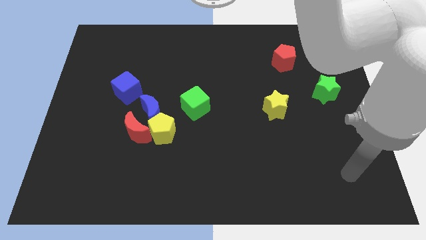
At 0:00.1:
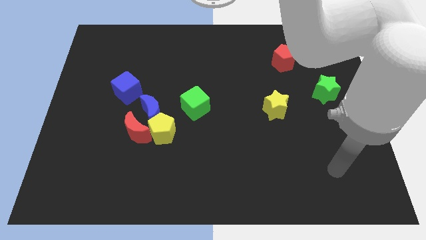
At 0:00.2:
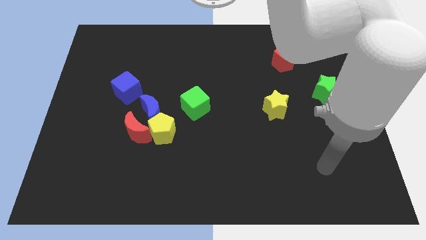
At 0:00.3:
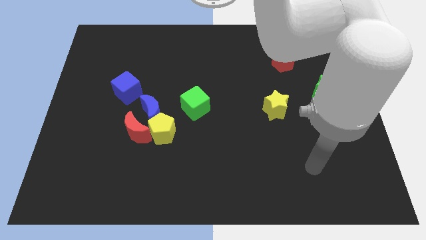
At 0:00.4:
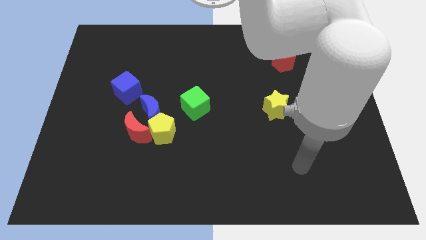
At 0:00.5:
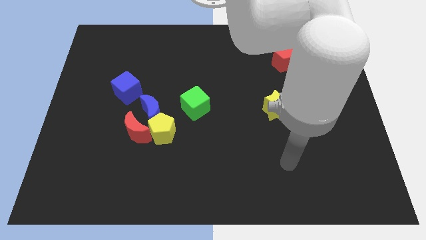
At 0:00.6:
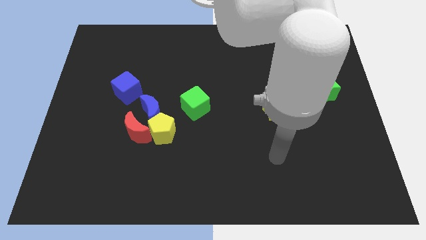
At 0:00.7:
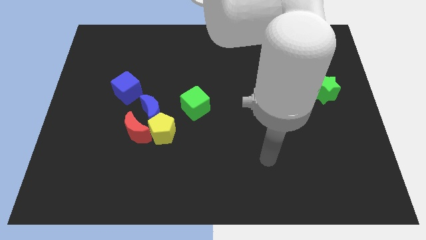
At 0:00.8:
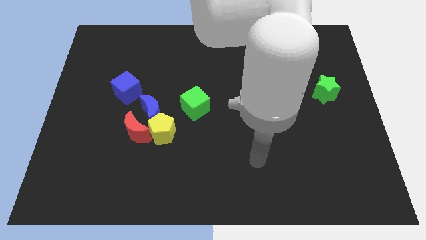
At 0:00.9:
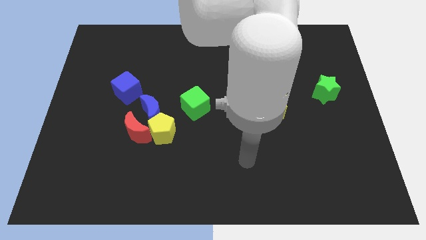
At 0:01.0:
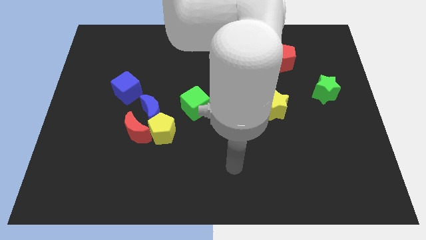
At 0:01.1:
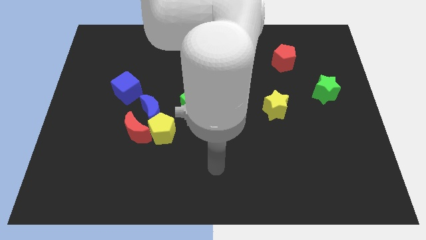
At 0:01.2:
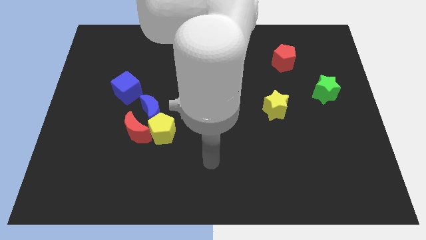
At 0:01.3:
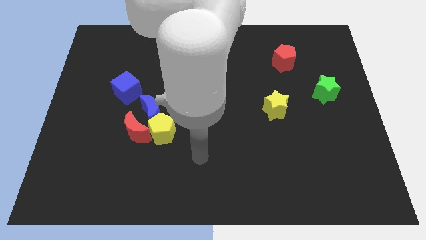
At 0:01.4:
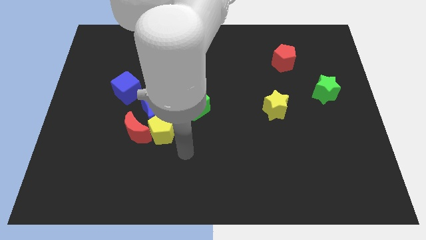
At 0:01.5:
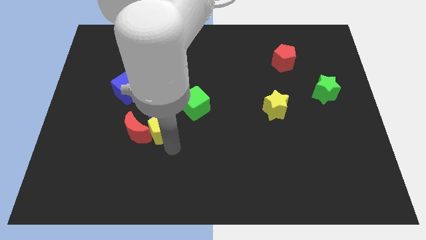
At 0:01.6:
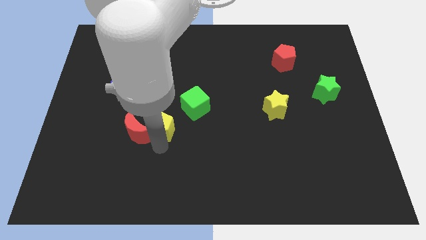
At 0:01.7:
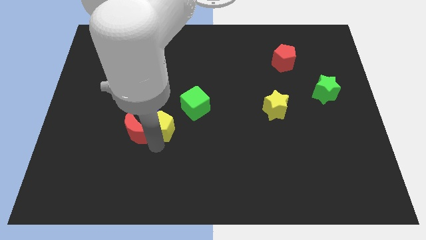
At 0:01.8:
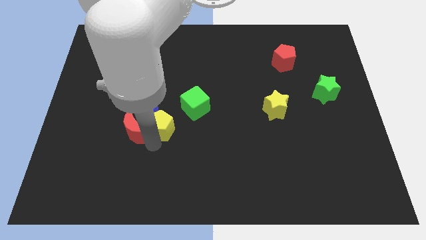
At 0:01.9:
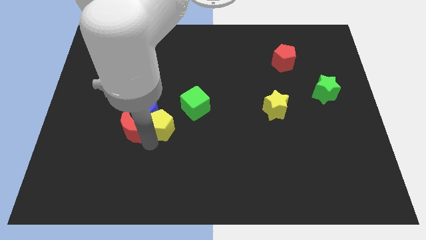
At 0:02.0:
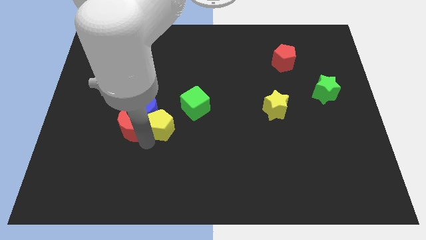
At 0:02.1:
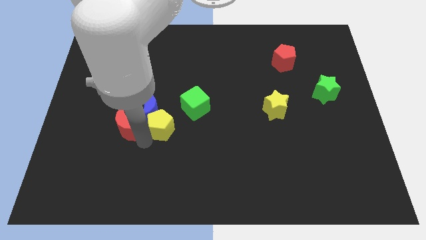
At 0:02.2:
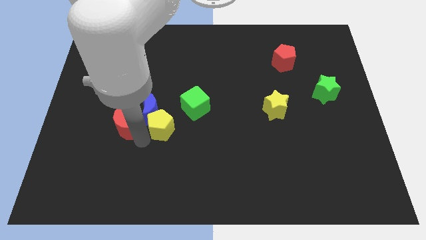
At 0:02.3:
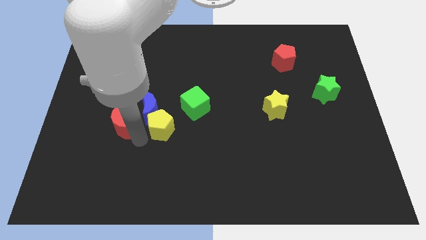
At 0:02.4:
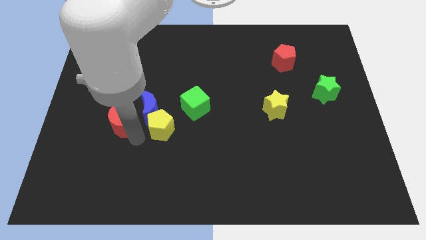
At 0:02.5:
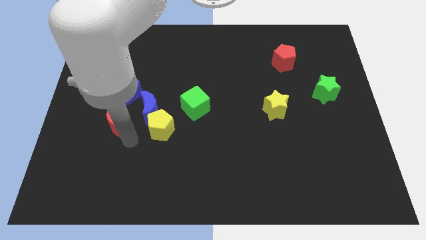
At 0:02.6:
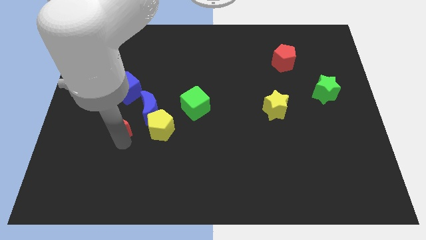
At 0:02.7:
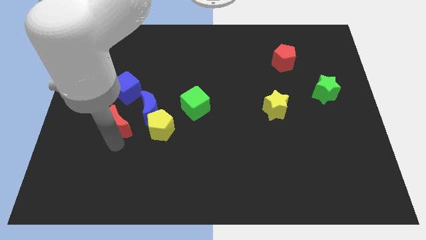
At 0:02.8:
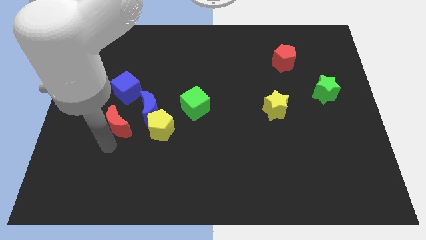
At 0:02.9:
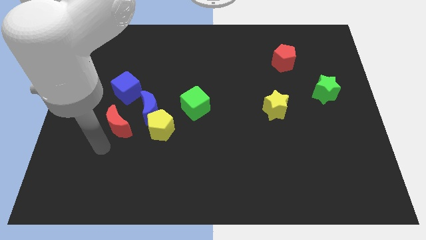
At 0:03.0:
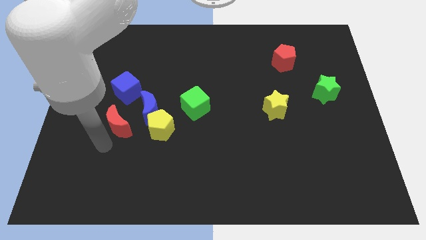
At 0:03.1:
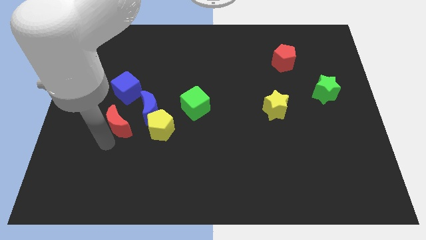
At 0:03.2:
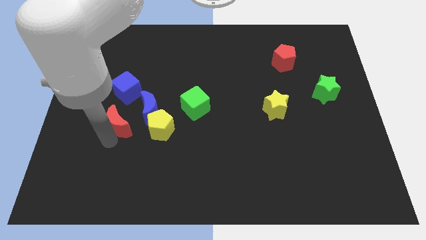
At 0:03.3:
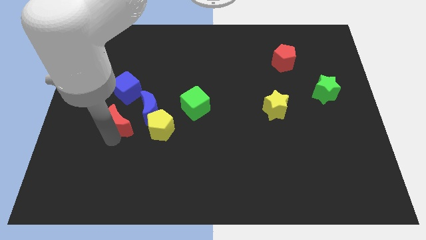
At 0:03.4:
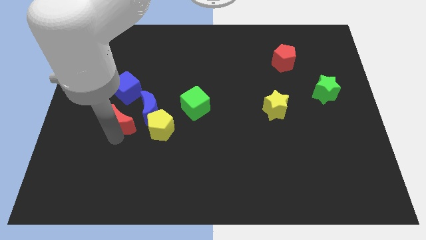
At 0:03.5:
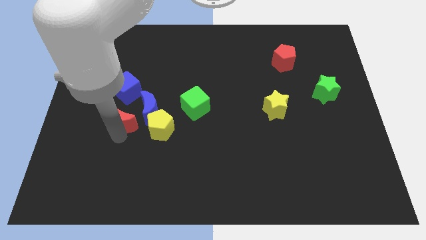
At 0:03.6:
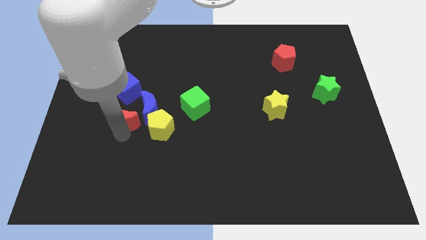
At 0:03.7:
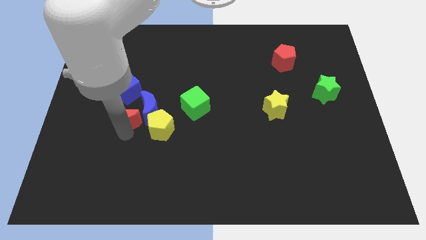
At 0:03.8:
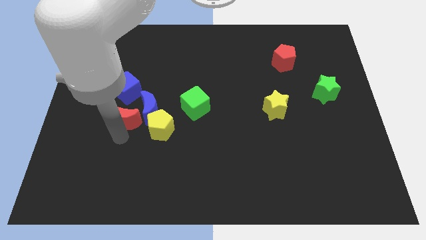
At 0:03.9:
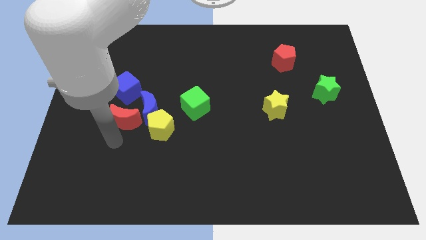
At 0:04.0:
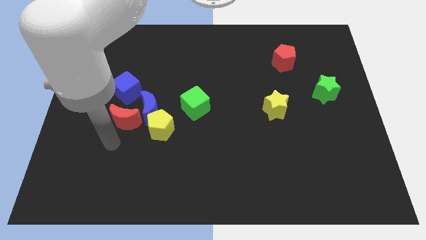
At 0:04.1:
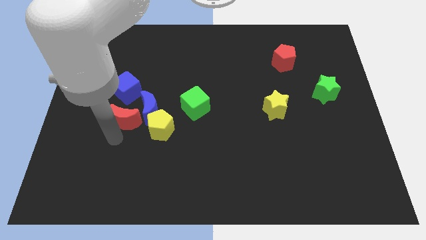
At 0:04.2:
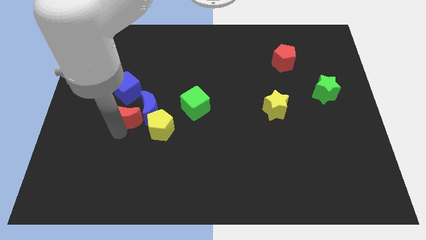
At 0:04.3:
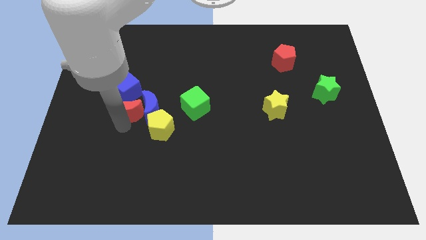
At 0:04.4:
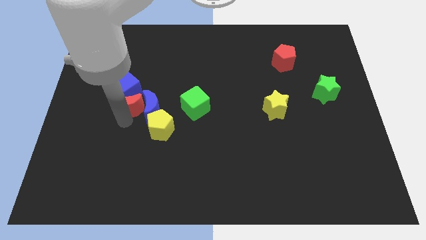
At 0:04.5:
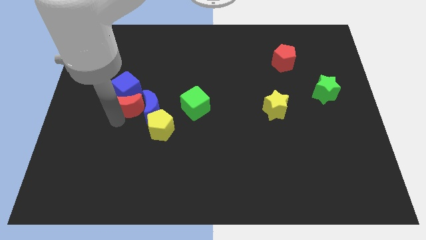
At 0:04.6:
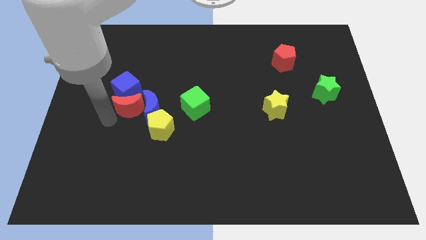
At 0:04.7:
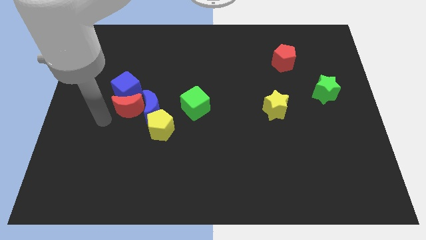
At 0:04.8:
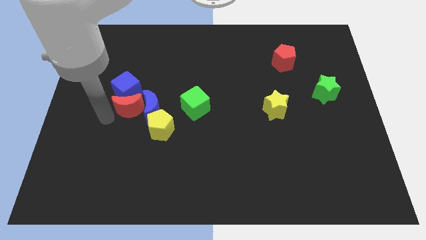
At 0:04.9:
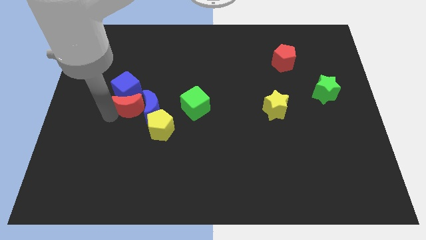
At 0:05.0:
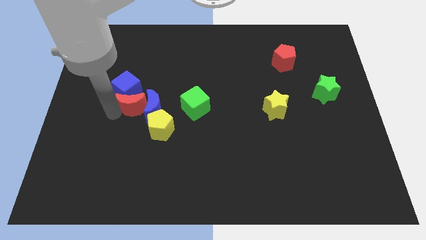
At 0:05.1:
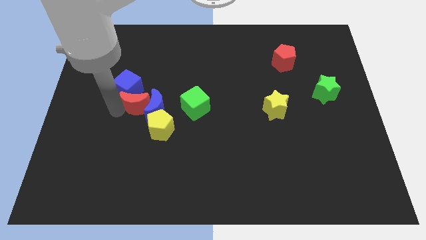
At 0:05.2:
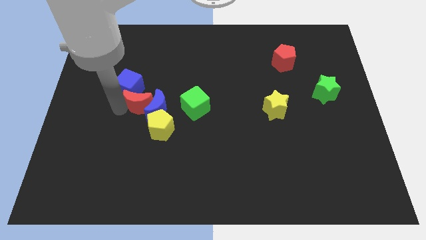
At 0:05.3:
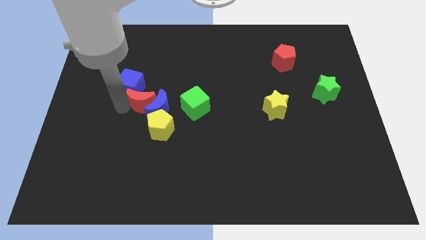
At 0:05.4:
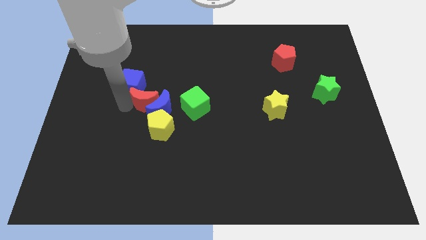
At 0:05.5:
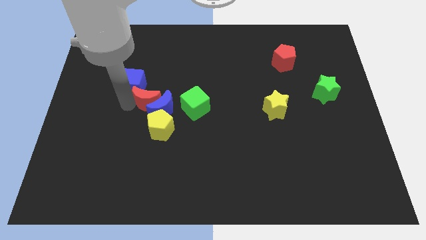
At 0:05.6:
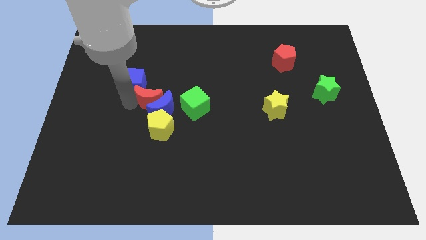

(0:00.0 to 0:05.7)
slide the red moon up and right a bit

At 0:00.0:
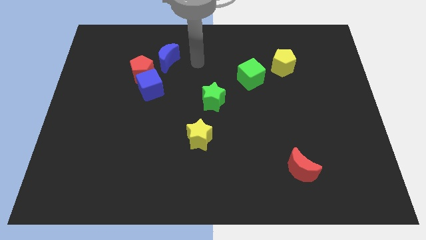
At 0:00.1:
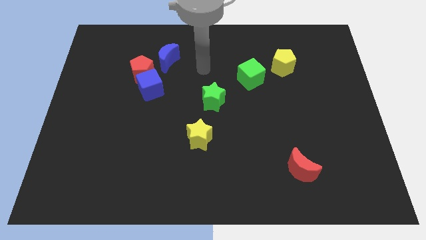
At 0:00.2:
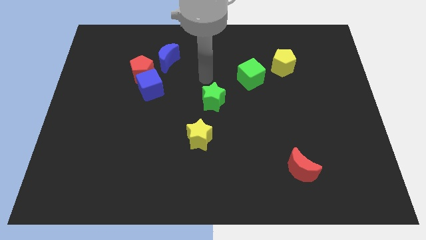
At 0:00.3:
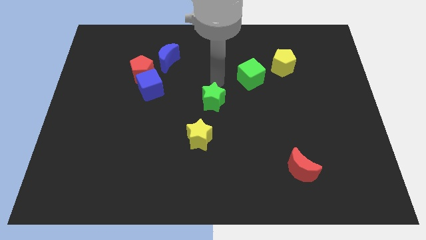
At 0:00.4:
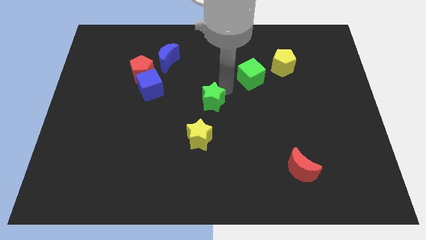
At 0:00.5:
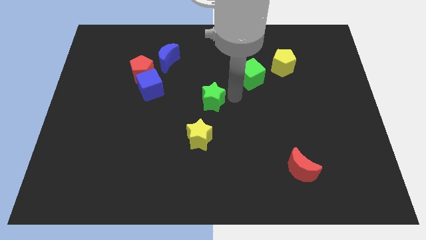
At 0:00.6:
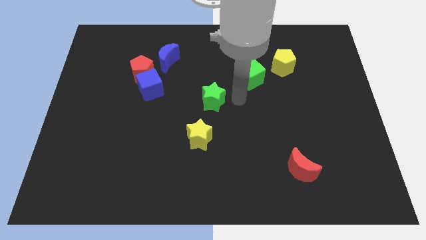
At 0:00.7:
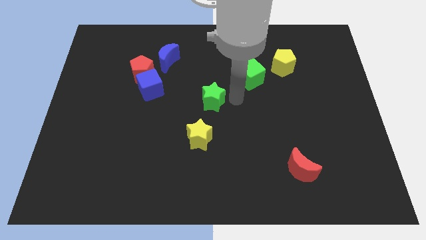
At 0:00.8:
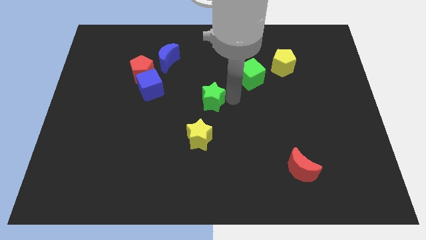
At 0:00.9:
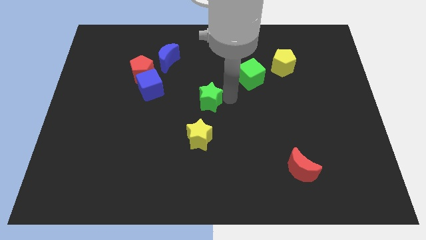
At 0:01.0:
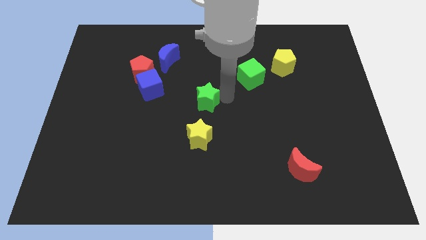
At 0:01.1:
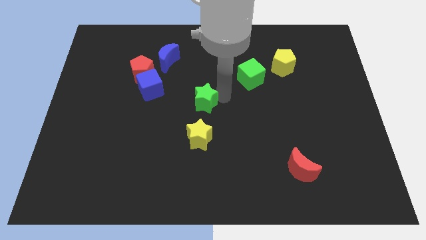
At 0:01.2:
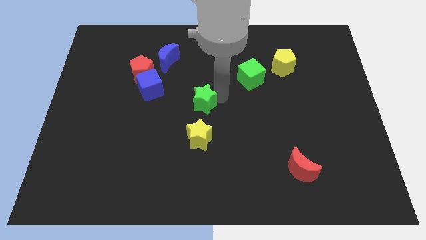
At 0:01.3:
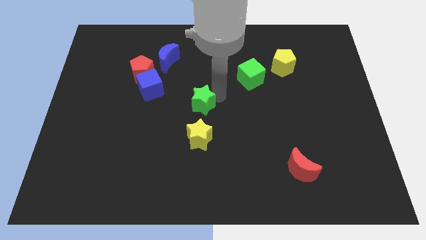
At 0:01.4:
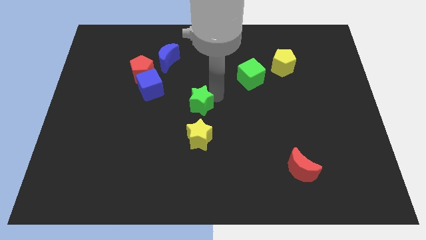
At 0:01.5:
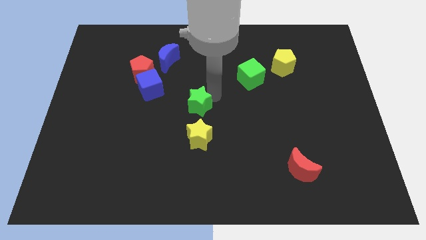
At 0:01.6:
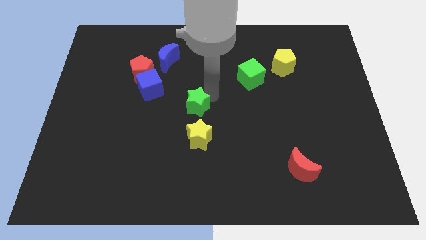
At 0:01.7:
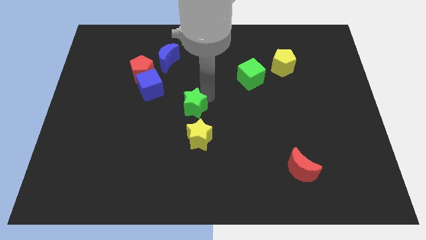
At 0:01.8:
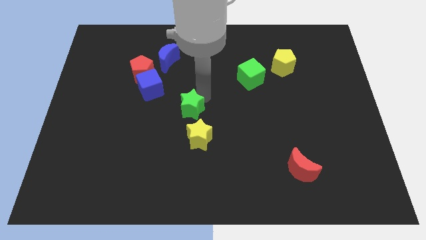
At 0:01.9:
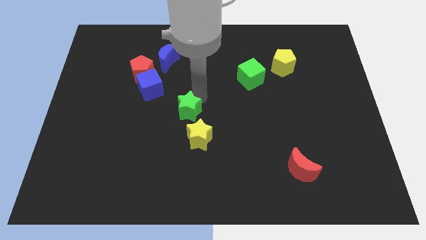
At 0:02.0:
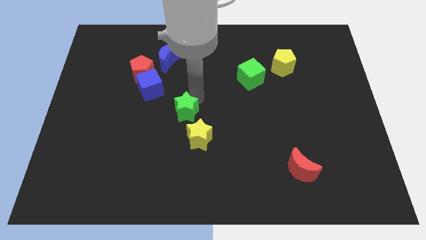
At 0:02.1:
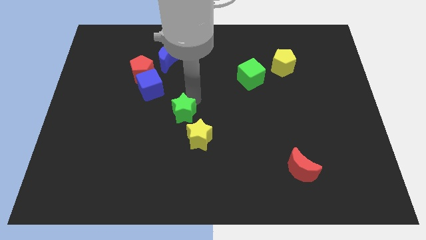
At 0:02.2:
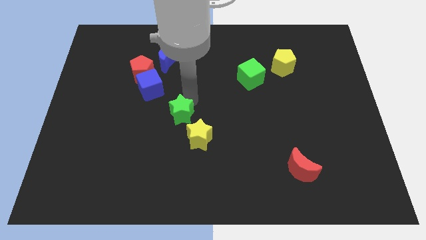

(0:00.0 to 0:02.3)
slightly push the green star to the left
